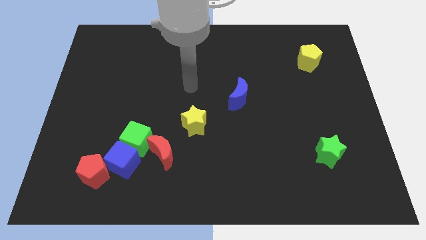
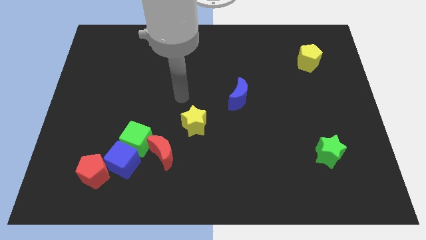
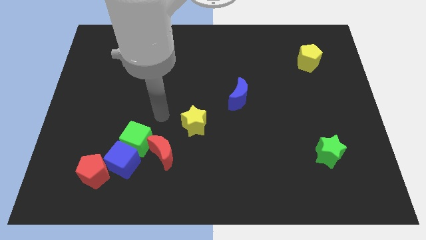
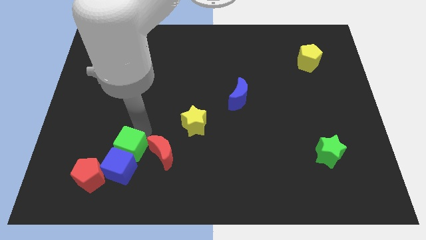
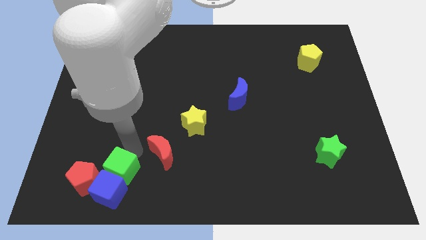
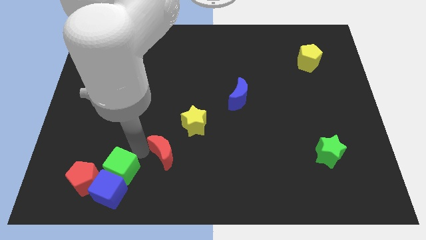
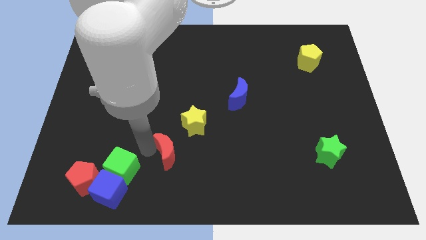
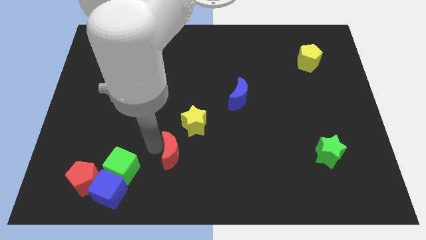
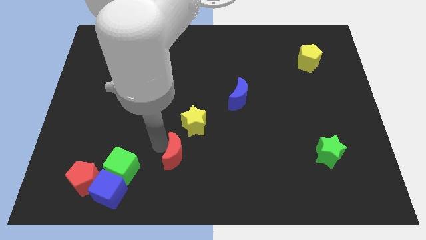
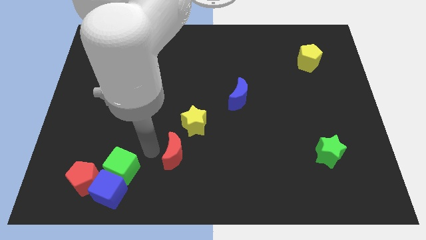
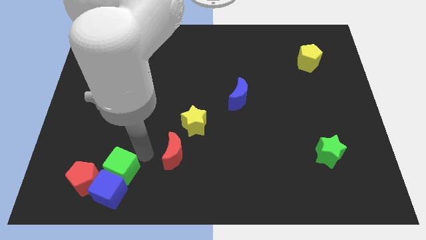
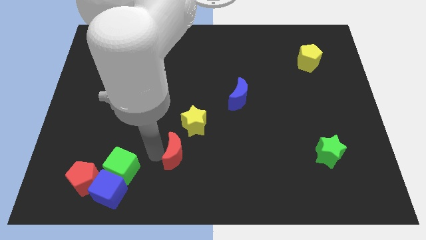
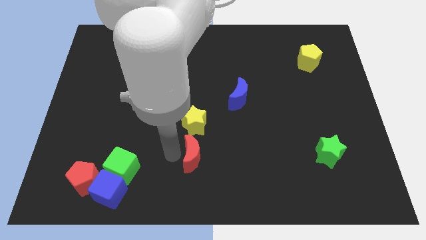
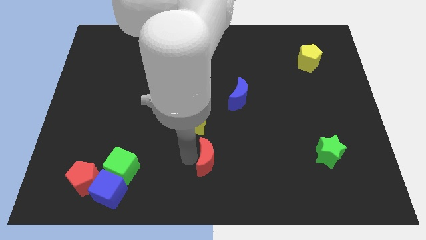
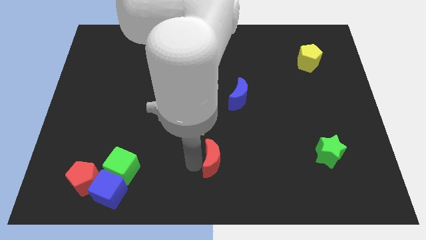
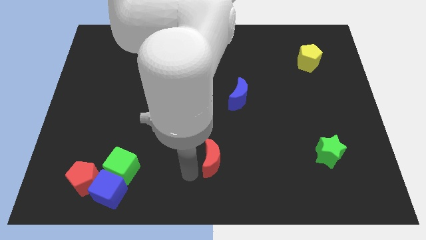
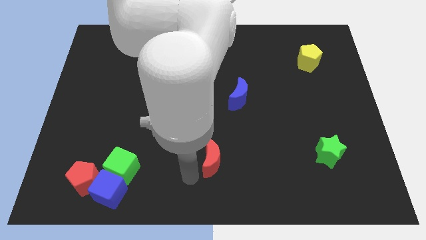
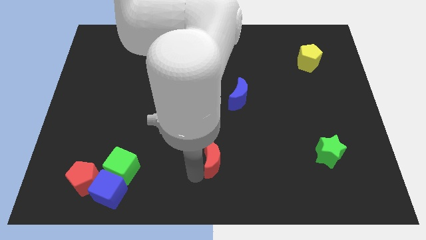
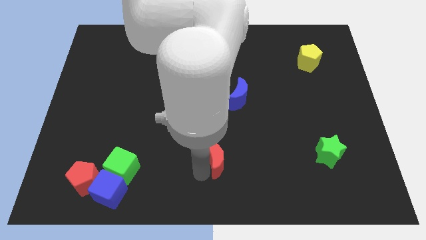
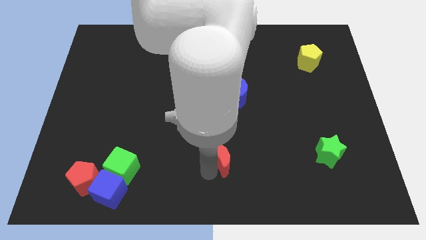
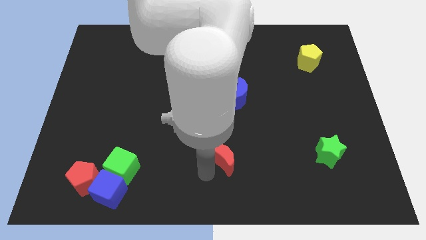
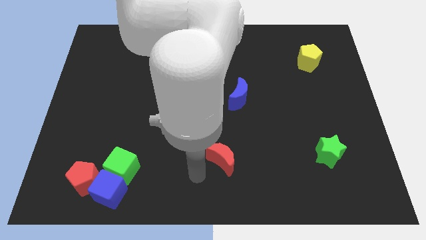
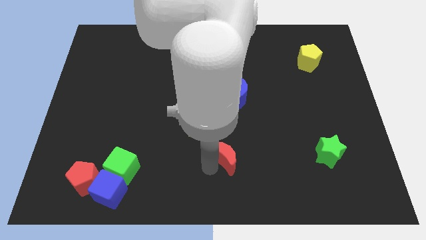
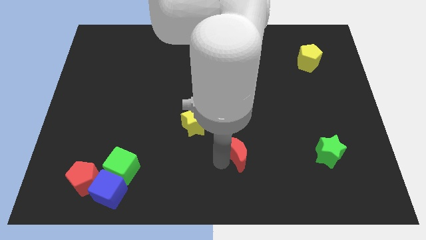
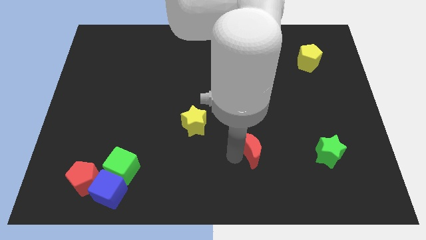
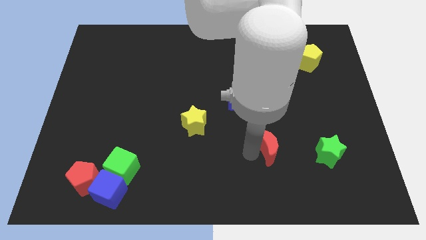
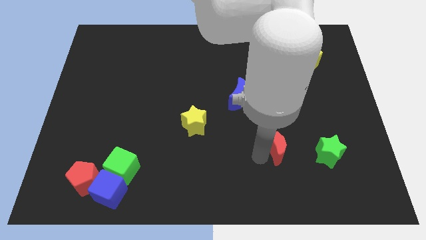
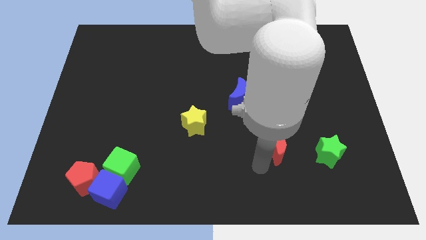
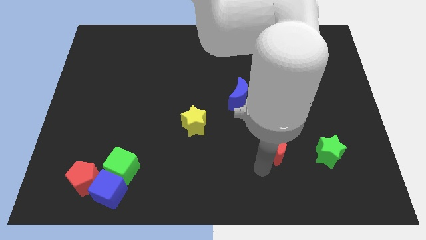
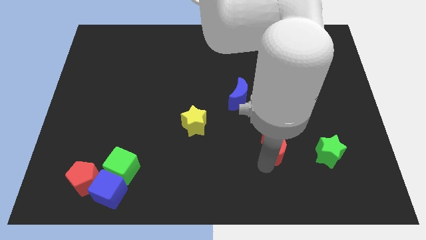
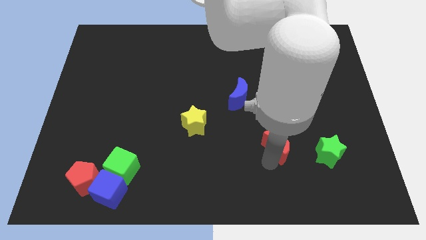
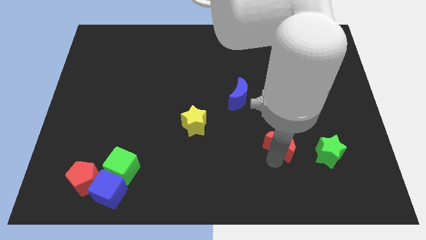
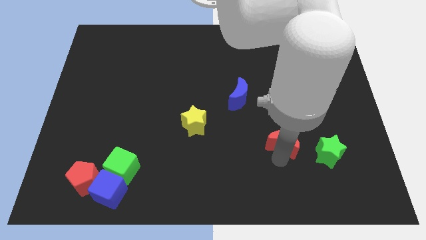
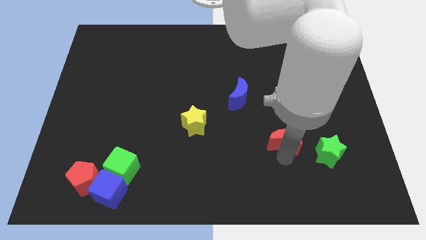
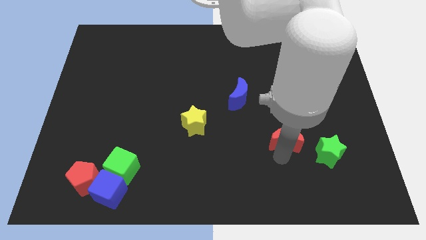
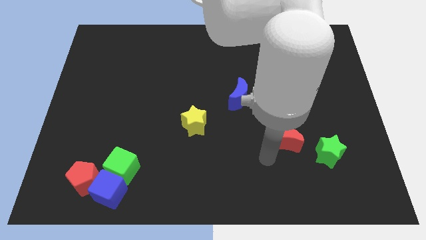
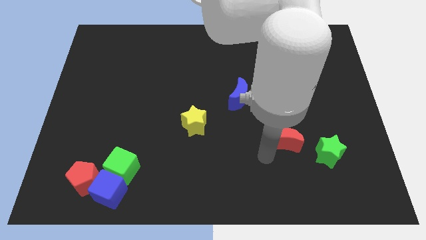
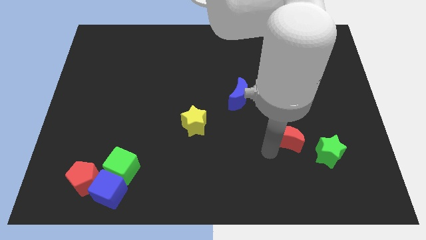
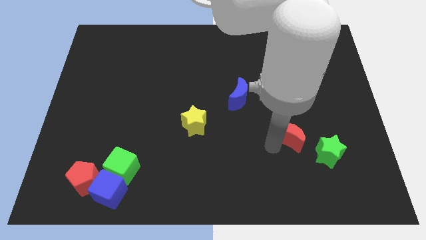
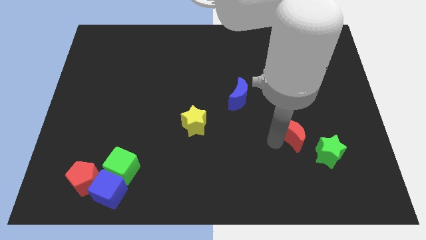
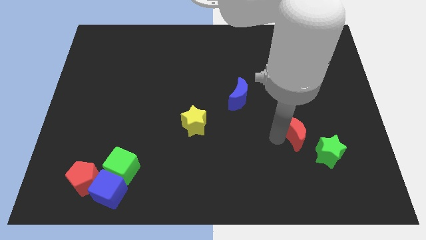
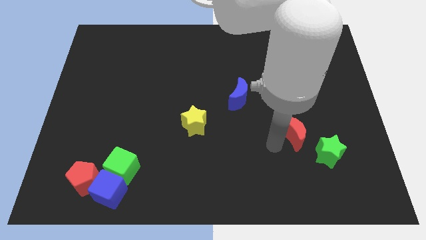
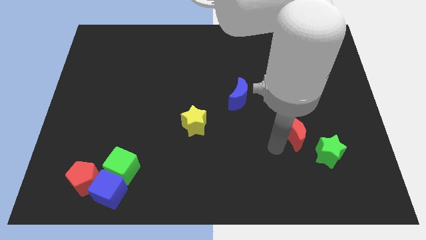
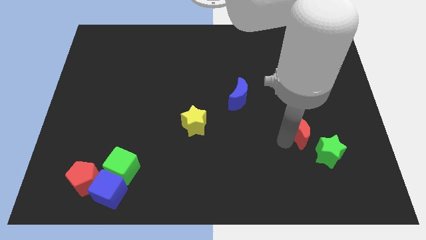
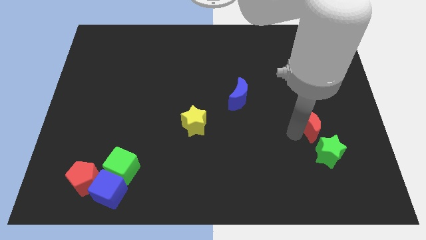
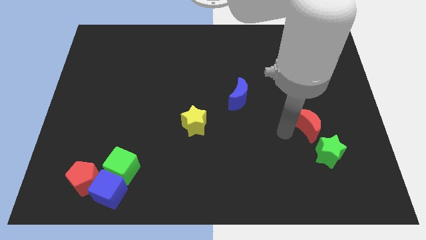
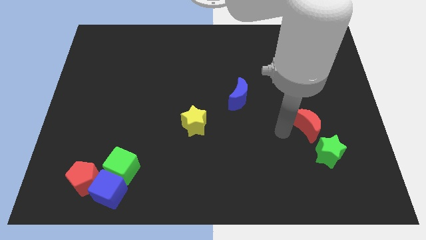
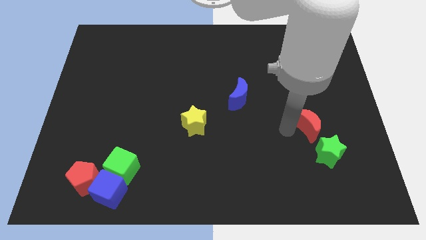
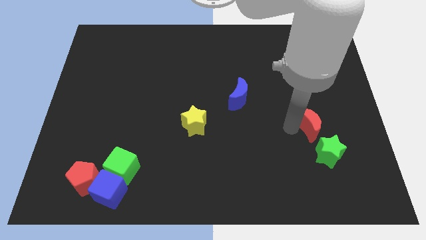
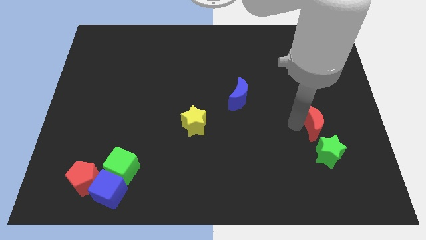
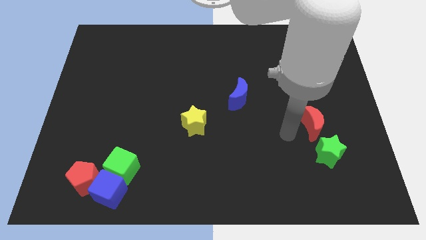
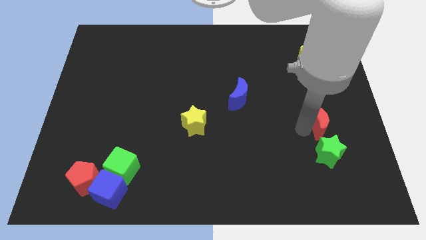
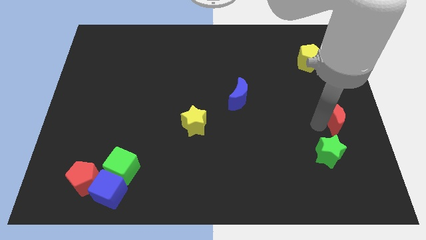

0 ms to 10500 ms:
slide the red moon to the center right
